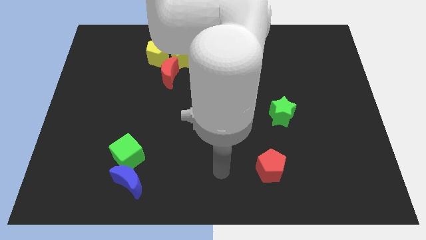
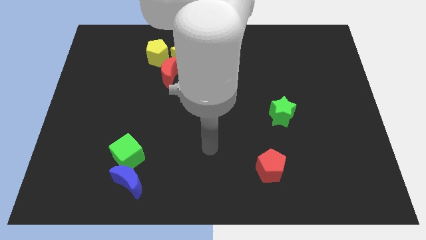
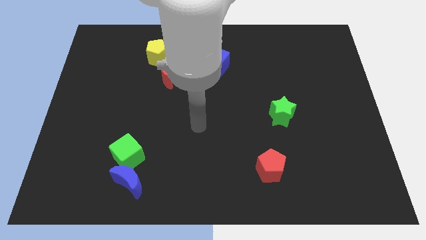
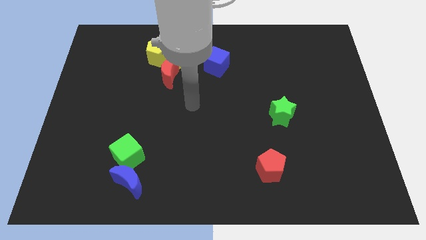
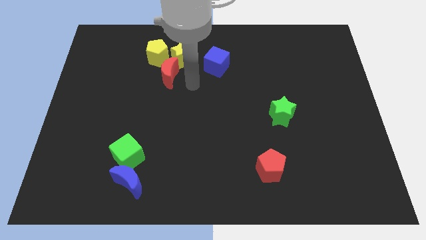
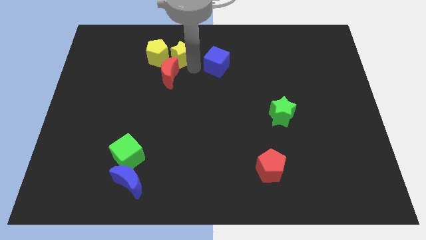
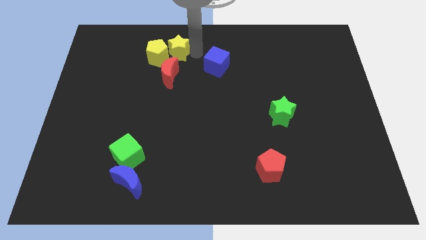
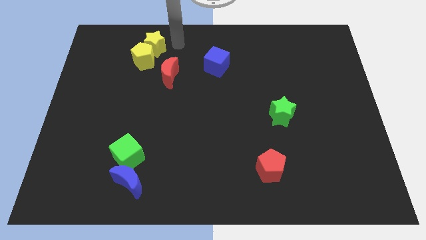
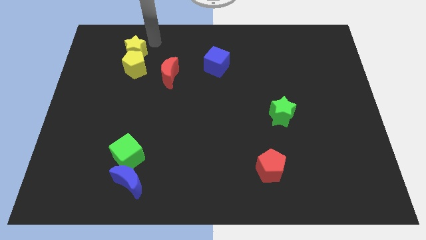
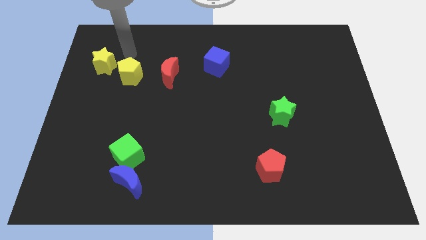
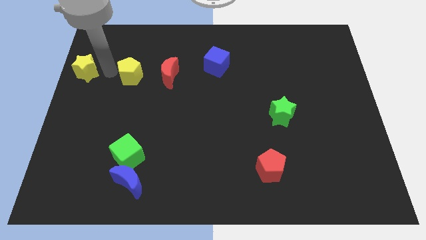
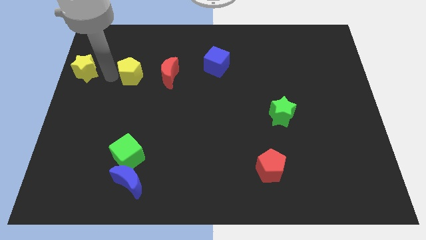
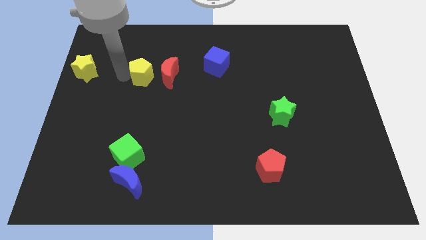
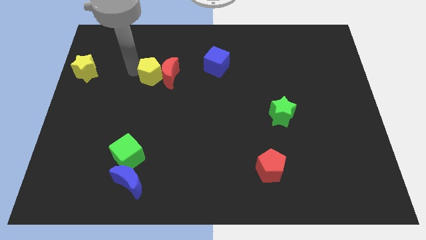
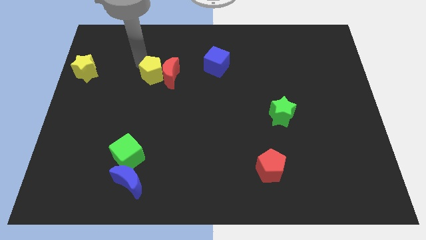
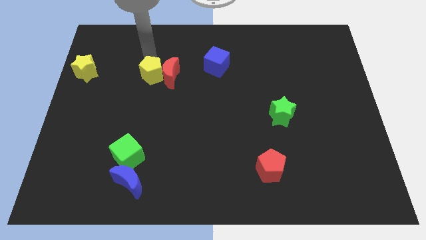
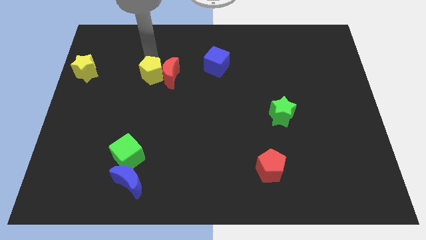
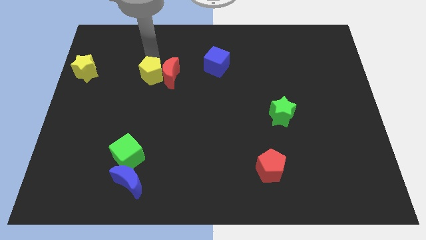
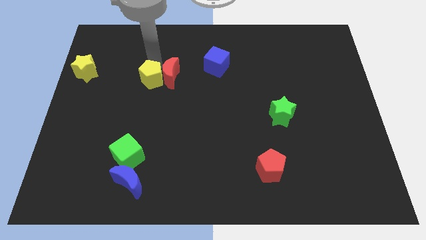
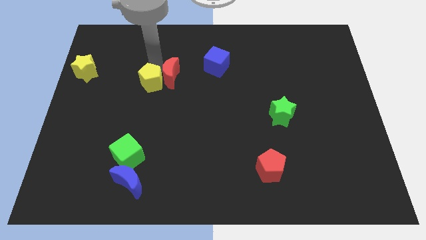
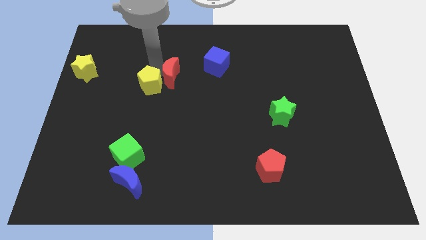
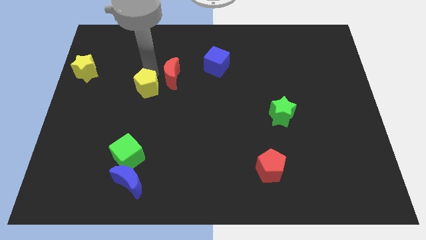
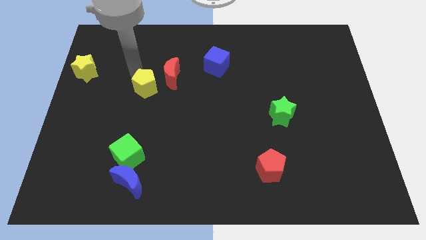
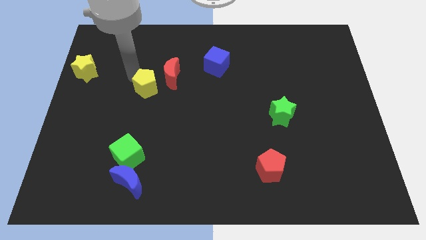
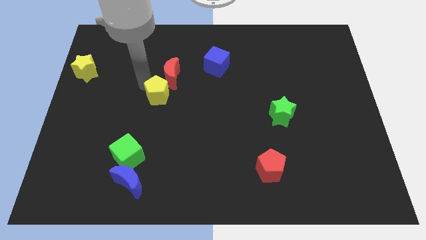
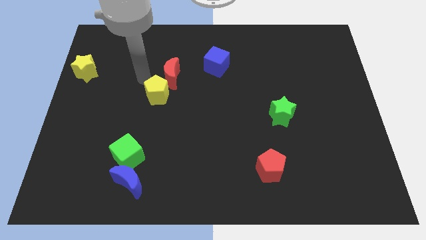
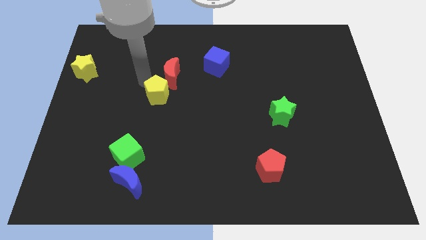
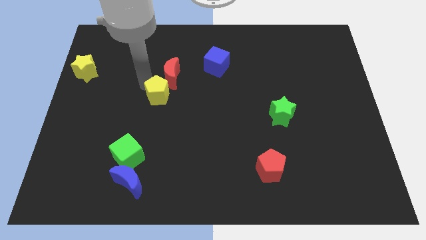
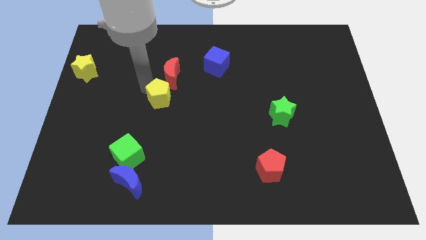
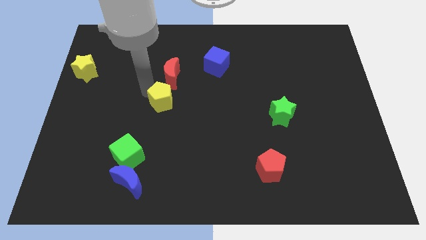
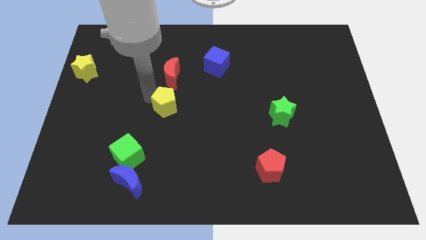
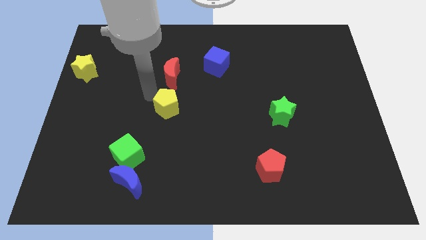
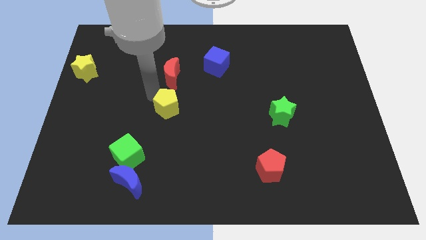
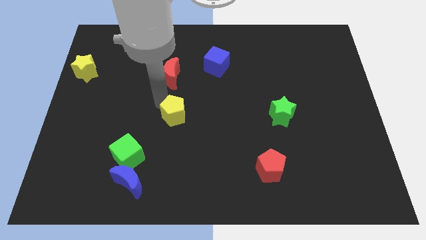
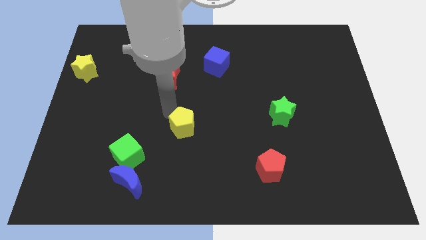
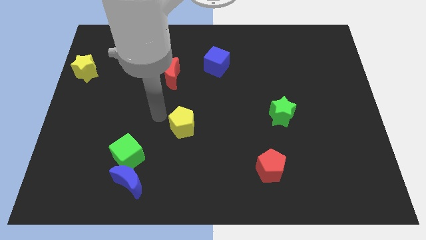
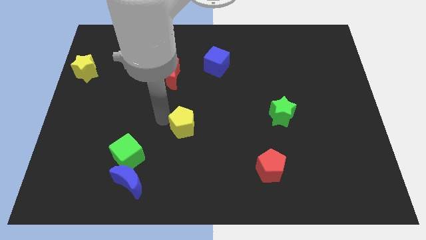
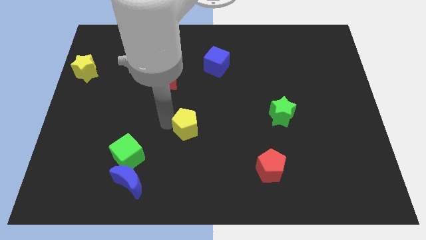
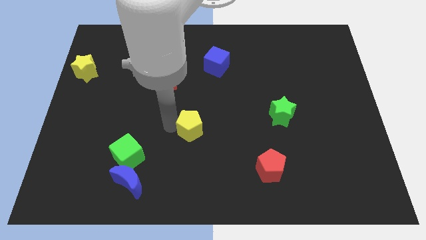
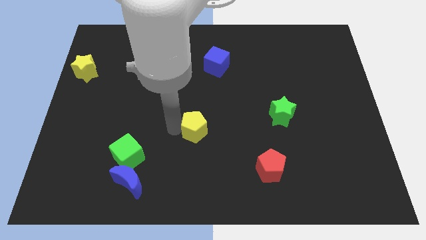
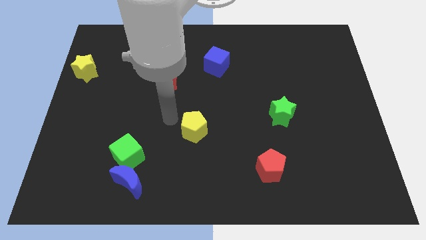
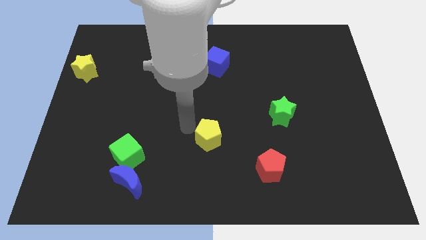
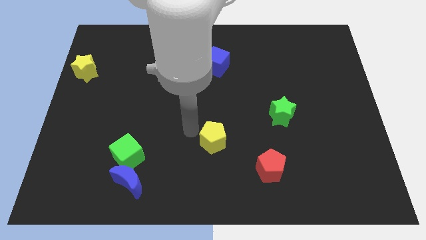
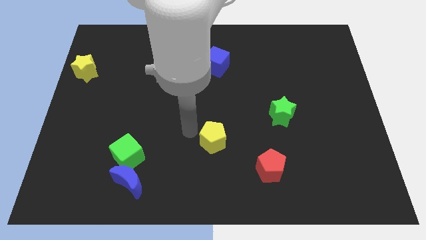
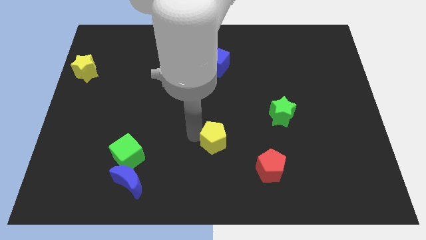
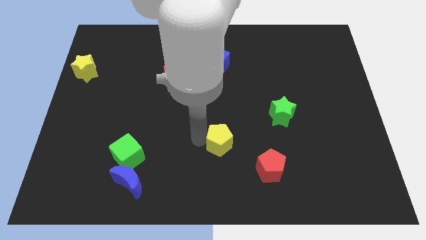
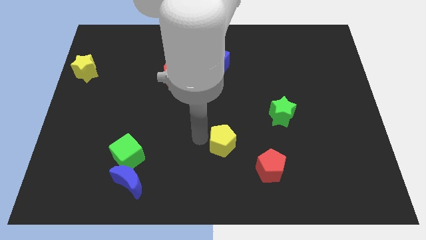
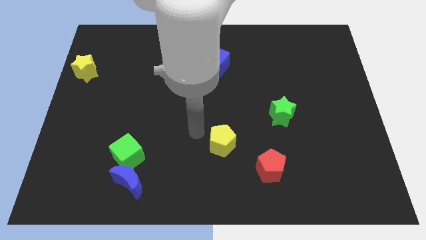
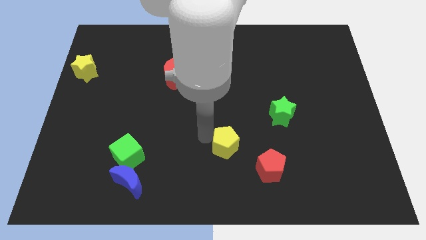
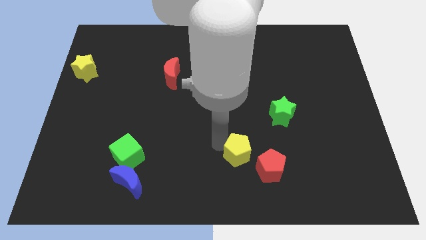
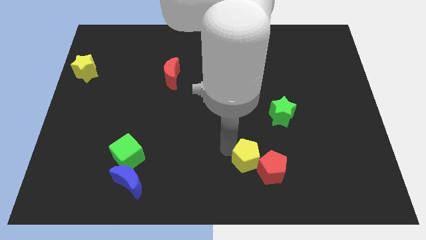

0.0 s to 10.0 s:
move the yellow pentagon close to the red pentagon

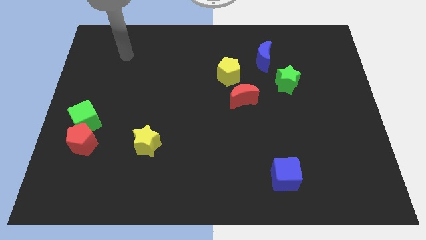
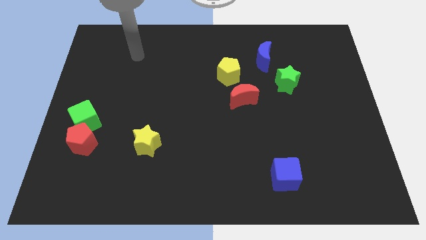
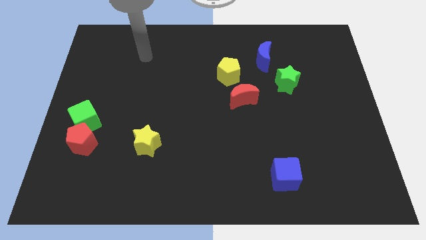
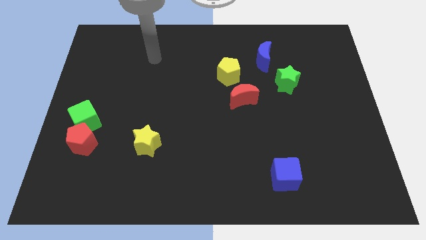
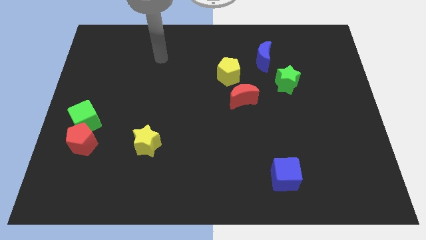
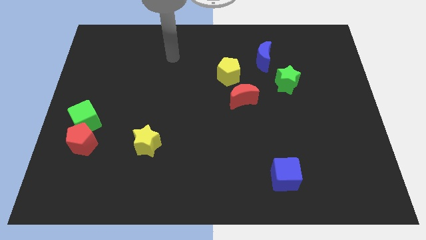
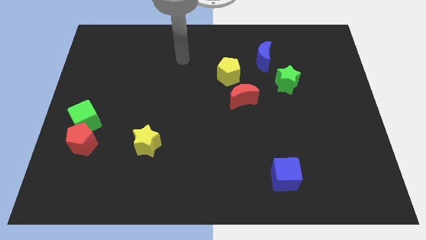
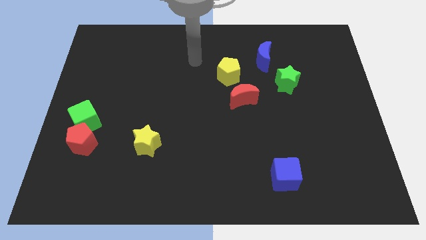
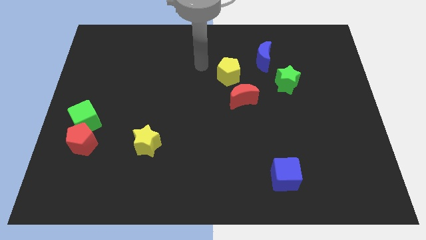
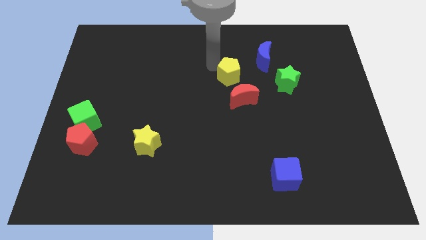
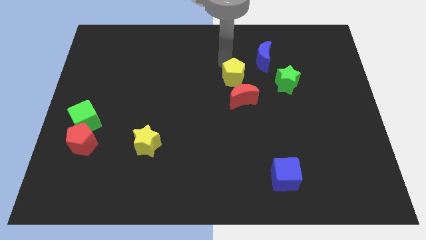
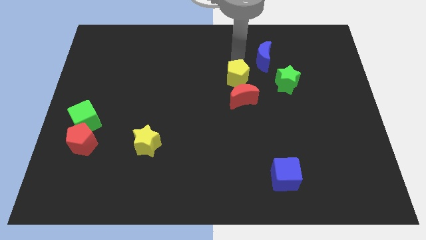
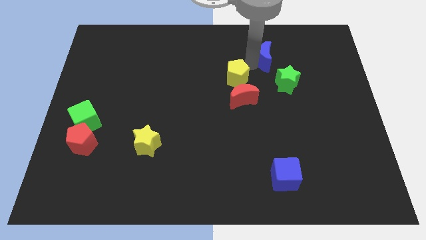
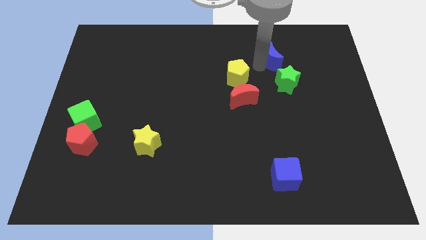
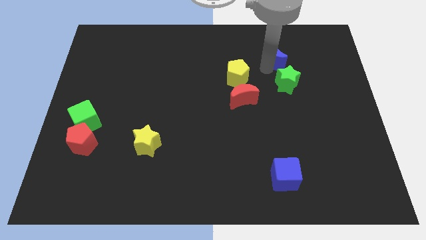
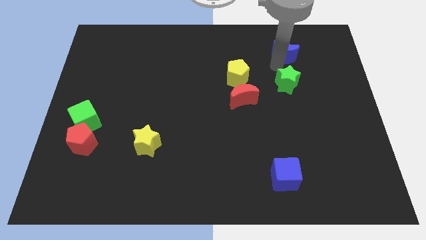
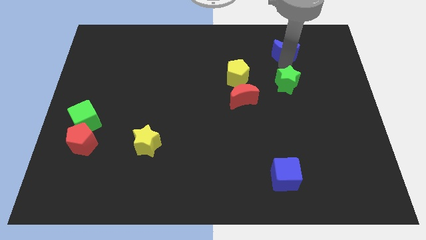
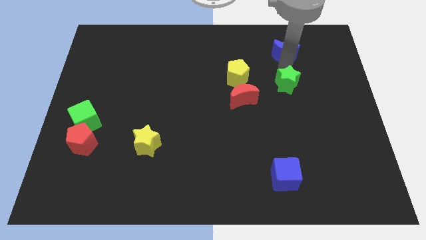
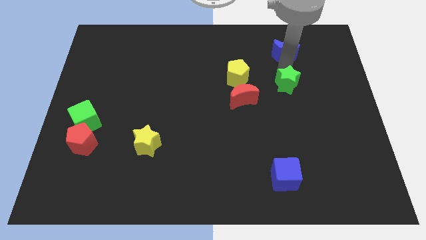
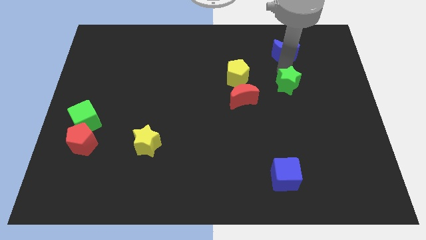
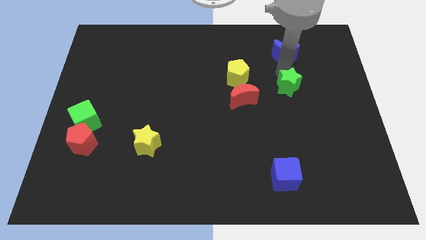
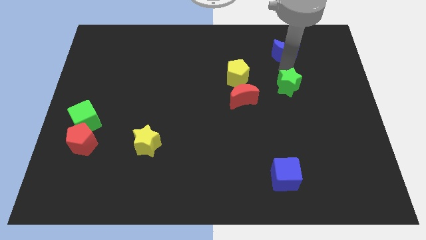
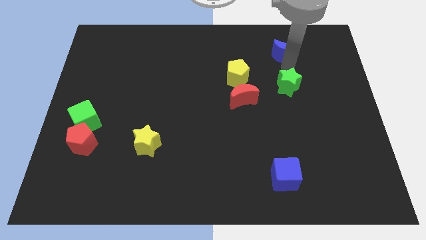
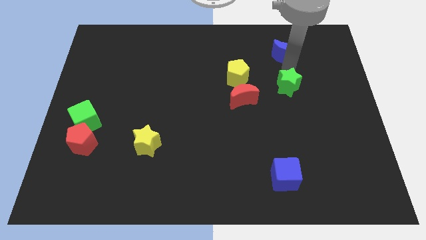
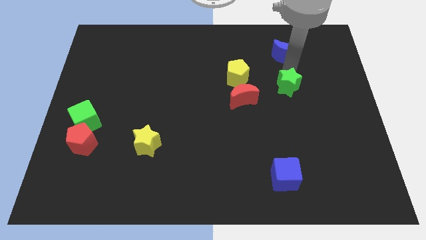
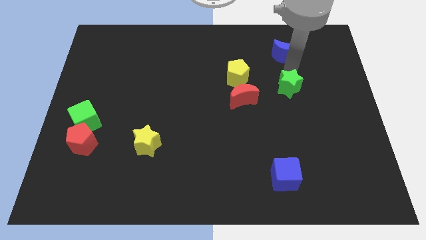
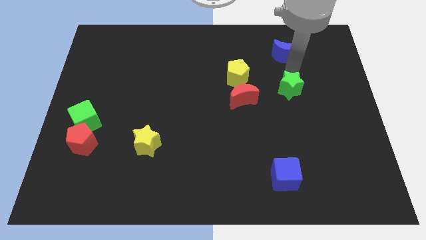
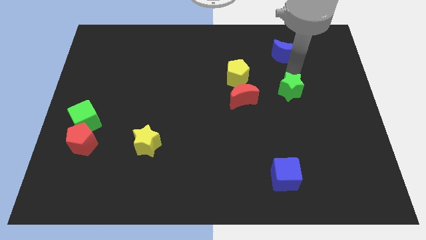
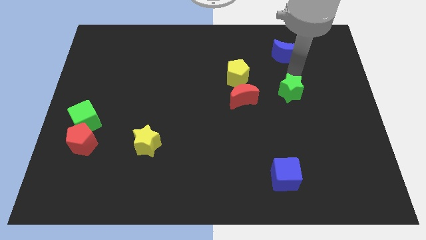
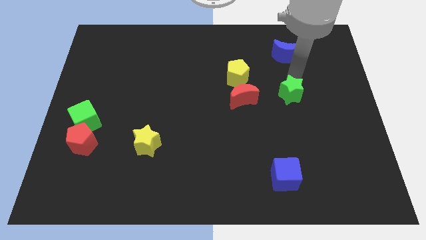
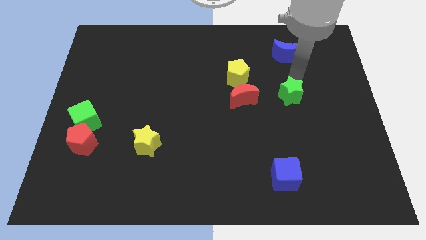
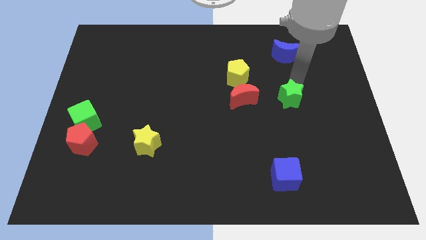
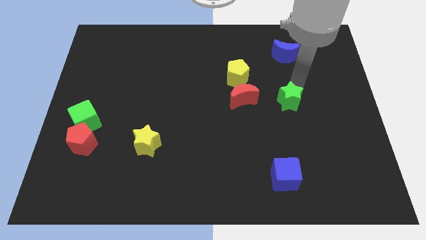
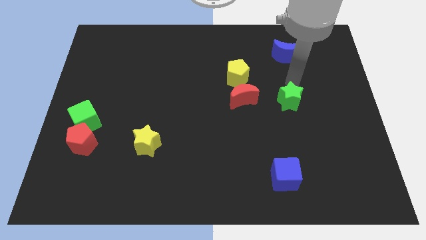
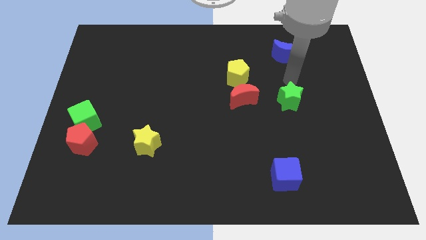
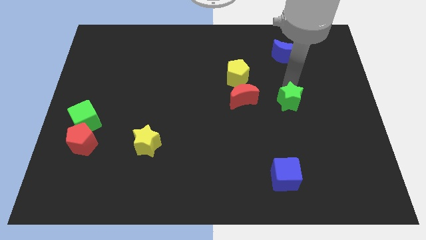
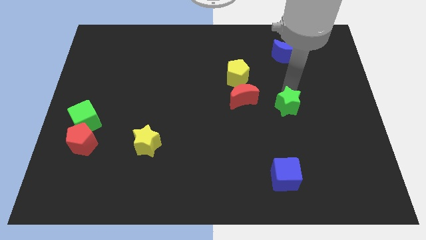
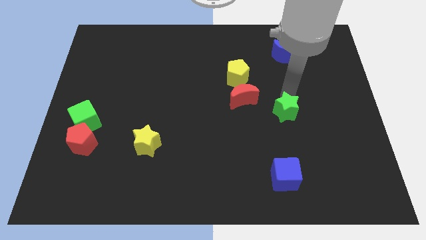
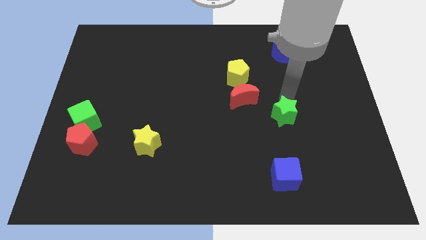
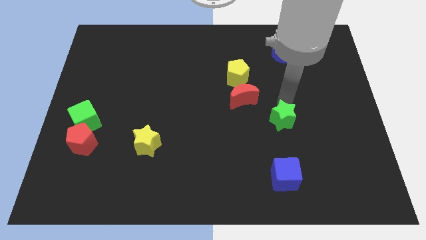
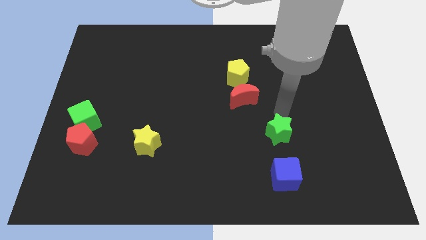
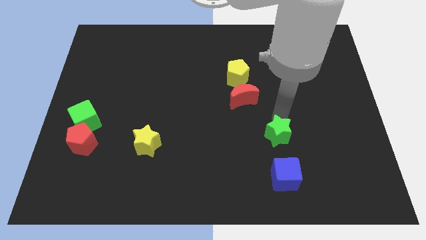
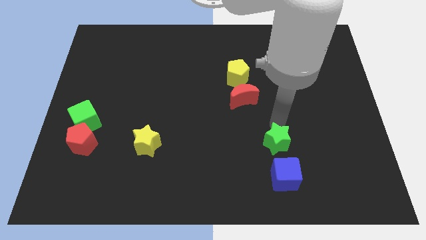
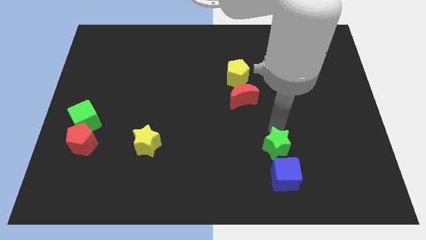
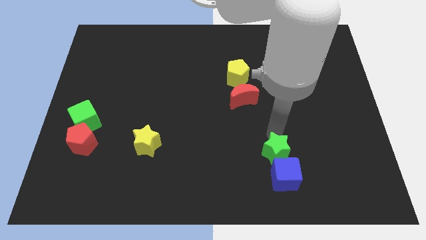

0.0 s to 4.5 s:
put the green star close to the blue cube
